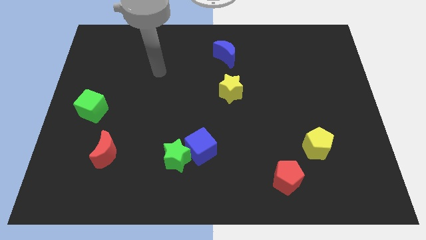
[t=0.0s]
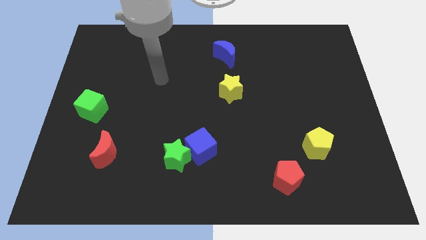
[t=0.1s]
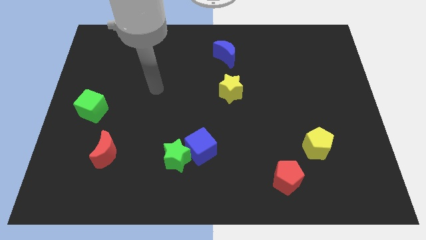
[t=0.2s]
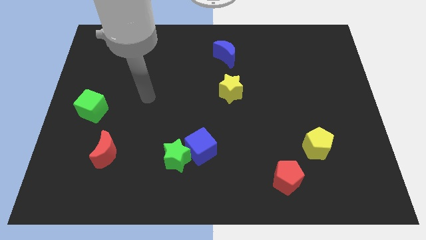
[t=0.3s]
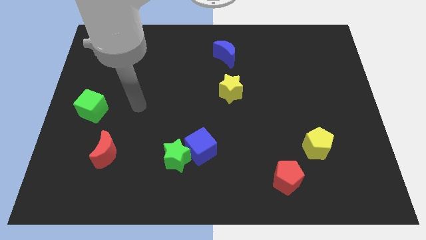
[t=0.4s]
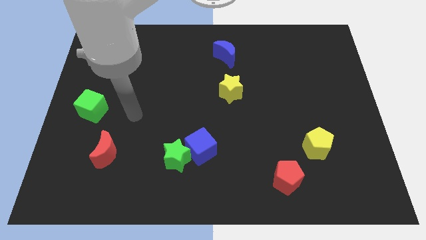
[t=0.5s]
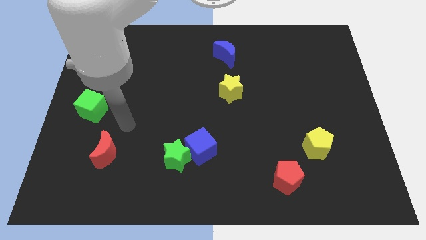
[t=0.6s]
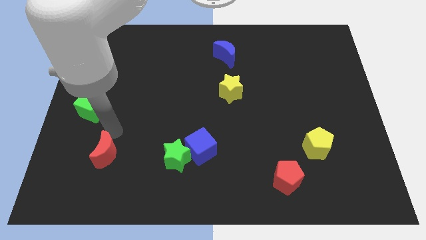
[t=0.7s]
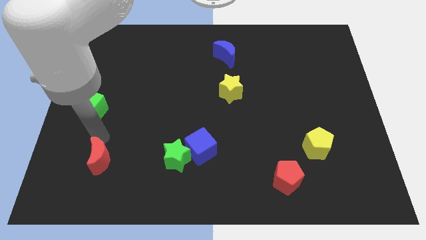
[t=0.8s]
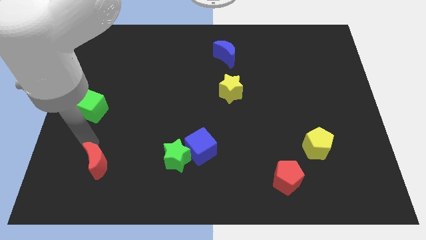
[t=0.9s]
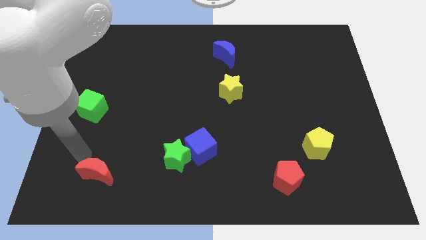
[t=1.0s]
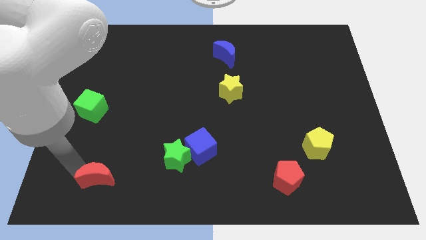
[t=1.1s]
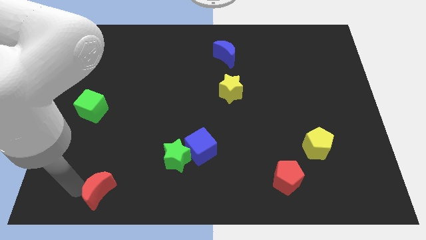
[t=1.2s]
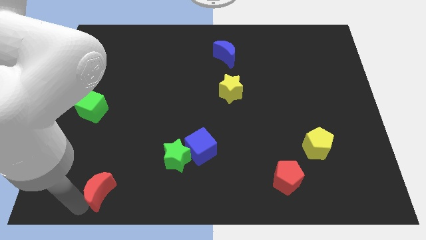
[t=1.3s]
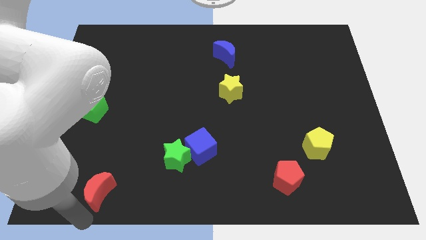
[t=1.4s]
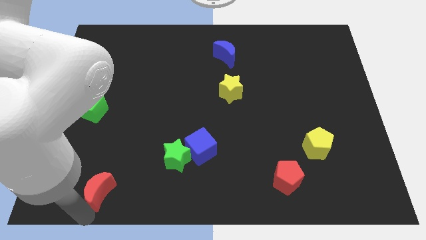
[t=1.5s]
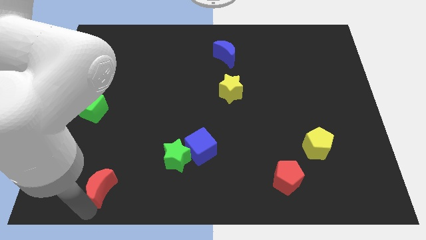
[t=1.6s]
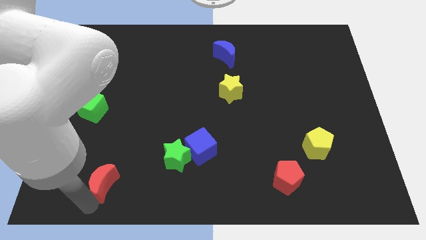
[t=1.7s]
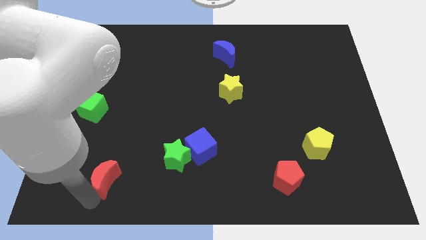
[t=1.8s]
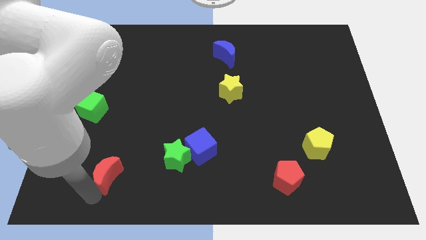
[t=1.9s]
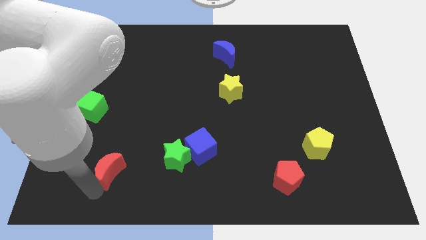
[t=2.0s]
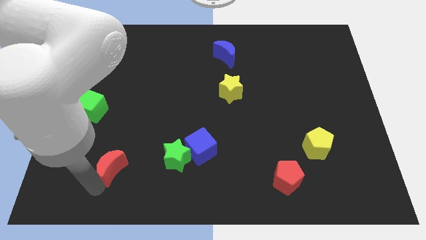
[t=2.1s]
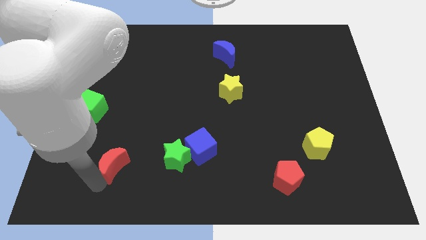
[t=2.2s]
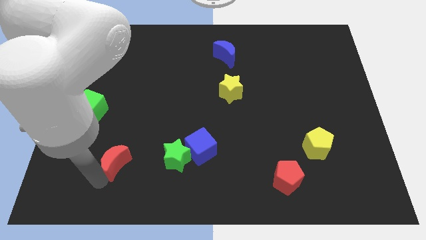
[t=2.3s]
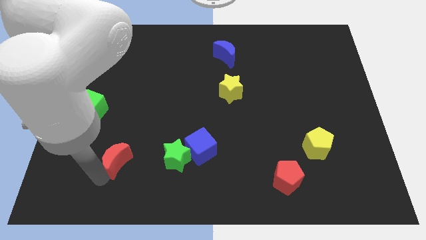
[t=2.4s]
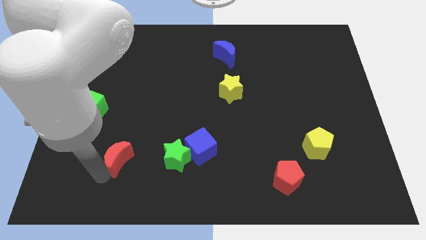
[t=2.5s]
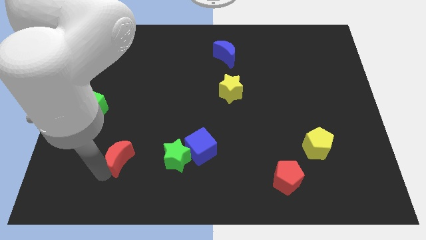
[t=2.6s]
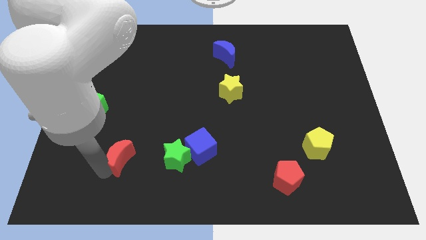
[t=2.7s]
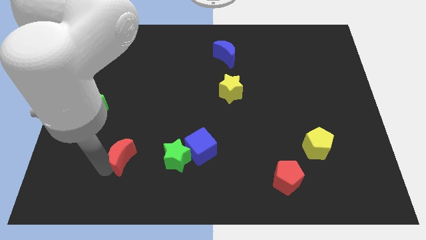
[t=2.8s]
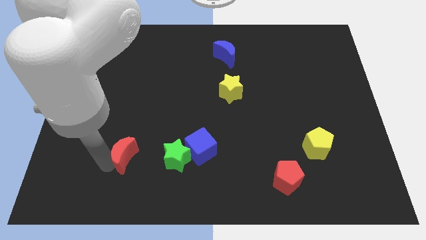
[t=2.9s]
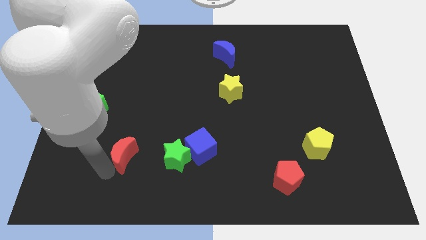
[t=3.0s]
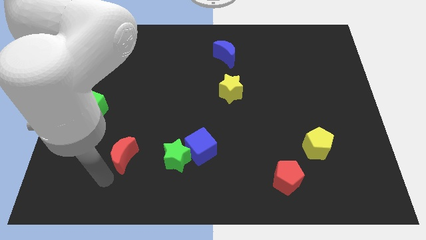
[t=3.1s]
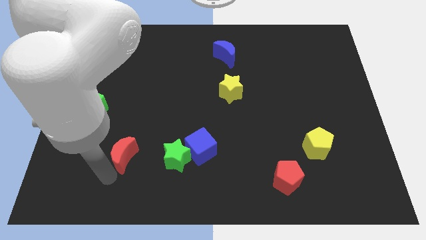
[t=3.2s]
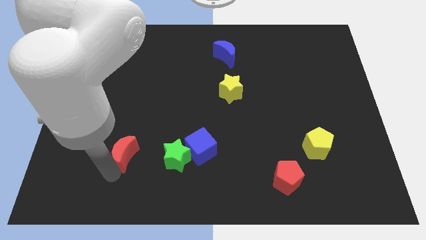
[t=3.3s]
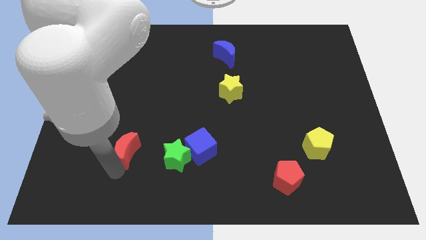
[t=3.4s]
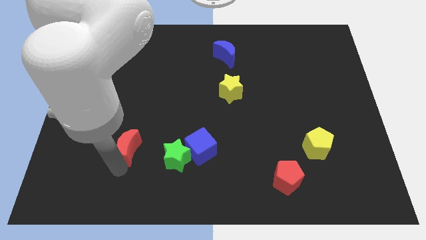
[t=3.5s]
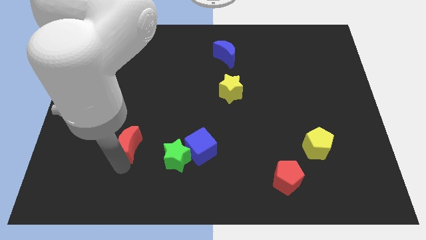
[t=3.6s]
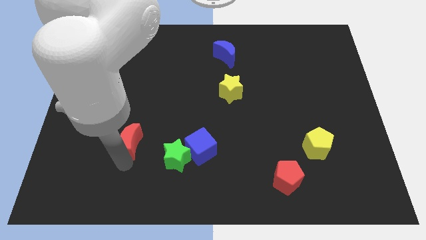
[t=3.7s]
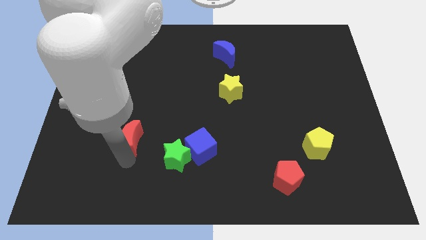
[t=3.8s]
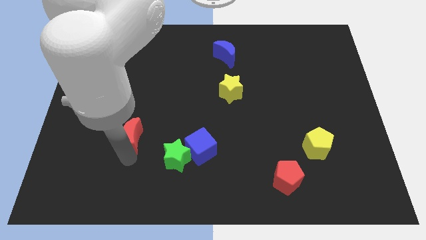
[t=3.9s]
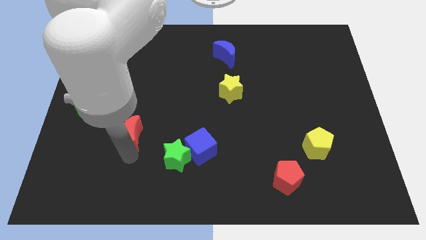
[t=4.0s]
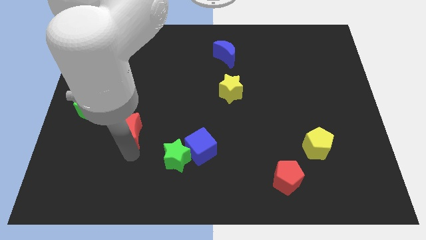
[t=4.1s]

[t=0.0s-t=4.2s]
push the red moon upwards and right slightly

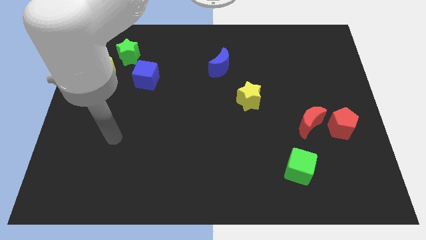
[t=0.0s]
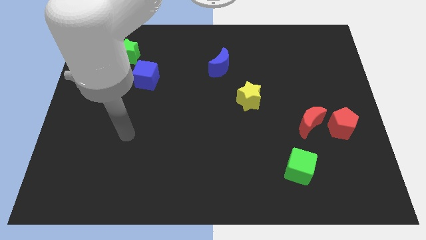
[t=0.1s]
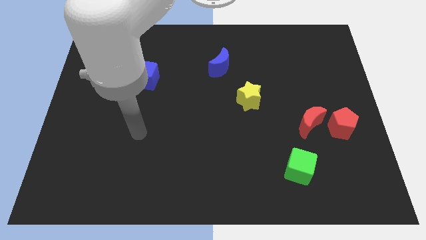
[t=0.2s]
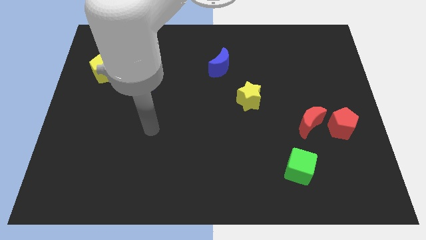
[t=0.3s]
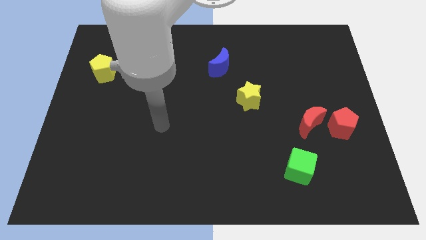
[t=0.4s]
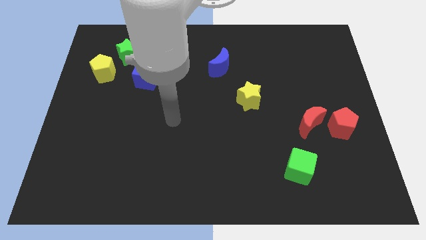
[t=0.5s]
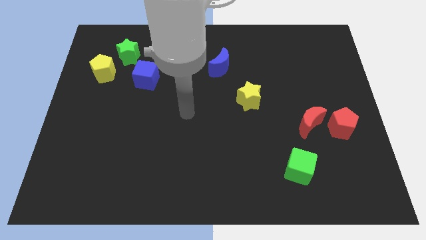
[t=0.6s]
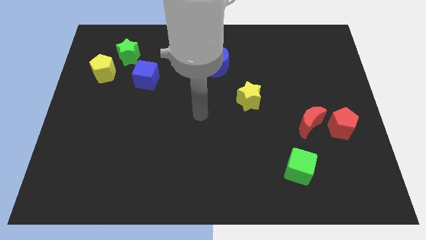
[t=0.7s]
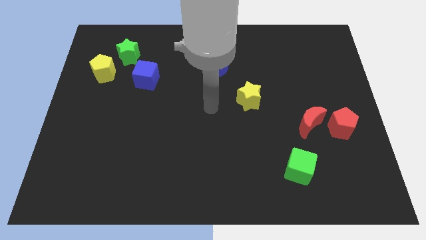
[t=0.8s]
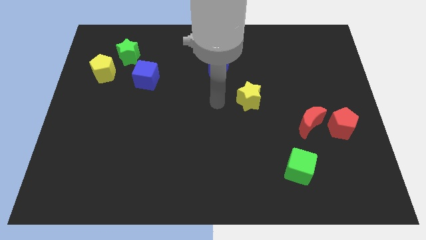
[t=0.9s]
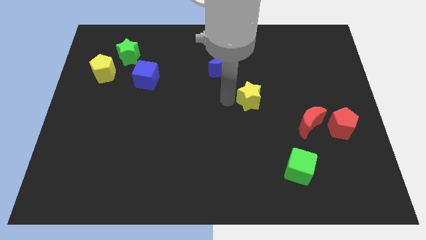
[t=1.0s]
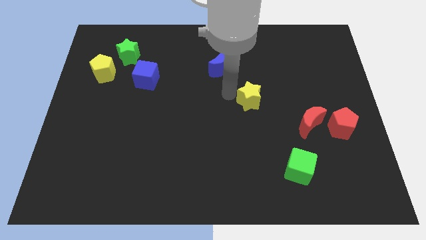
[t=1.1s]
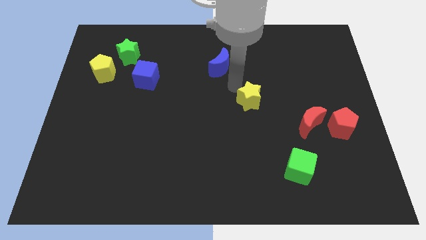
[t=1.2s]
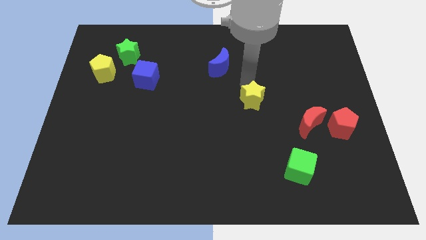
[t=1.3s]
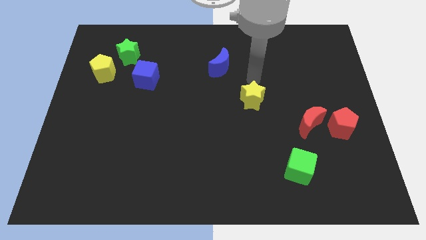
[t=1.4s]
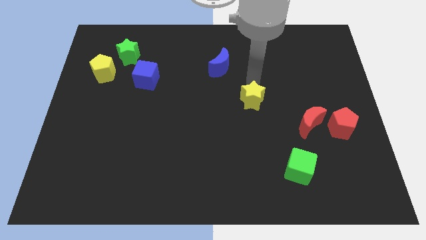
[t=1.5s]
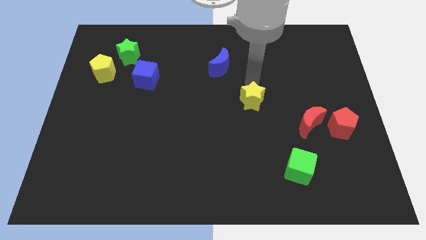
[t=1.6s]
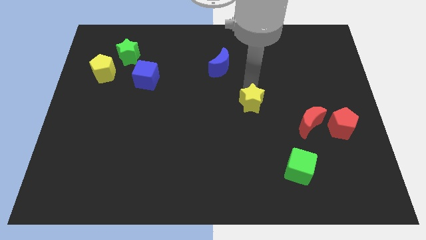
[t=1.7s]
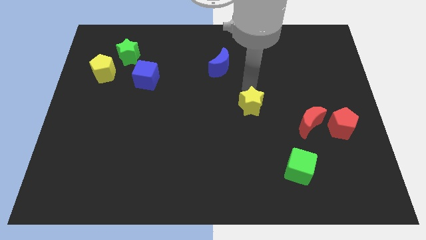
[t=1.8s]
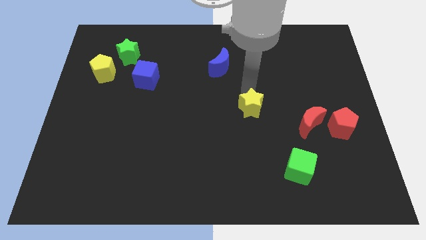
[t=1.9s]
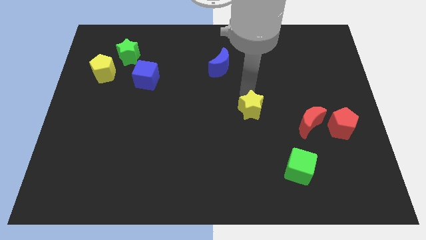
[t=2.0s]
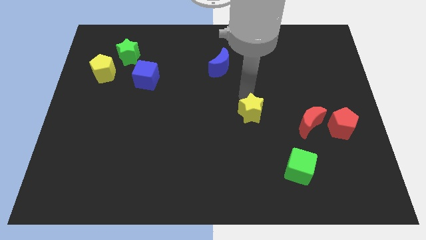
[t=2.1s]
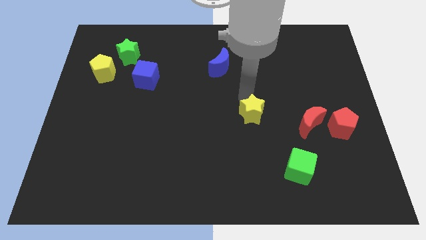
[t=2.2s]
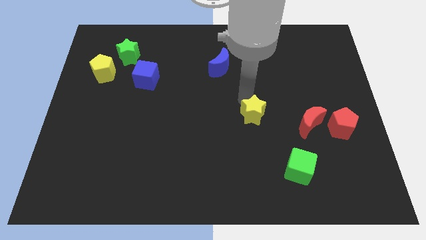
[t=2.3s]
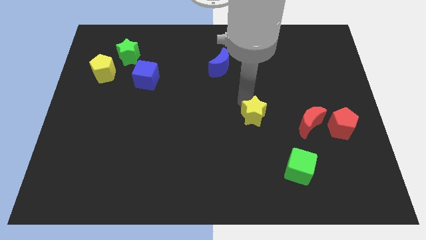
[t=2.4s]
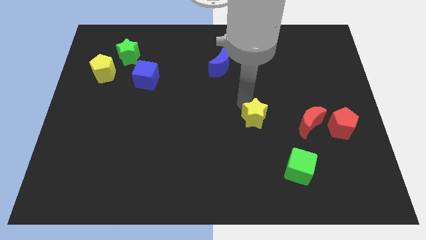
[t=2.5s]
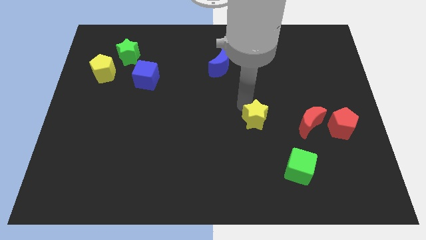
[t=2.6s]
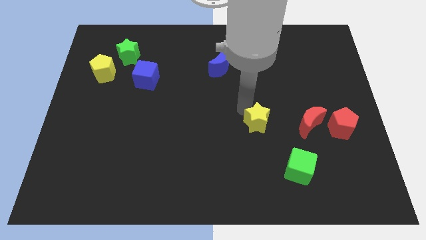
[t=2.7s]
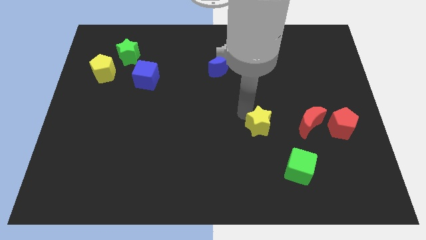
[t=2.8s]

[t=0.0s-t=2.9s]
move the yellow star downwards slightly

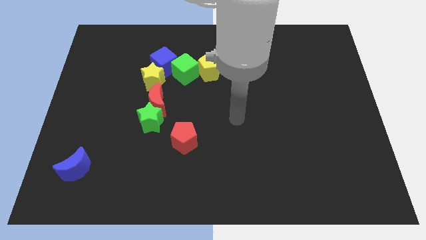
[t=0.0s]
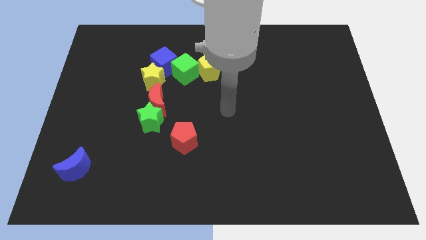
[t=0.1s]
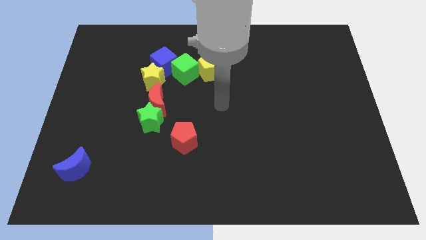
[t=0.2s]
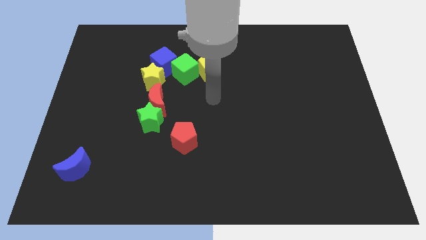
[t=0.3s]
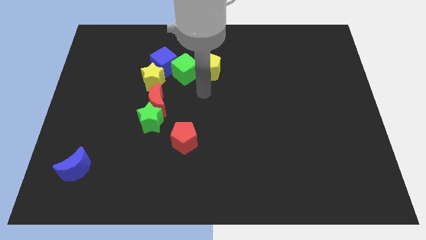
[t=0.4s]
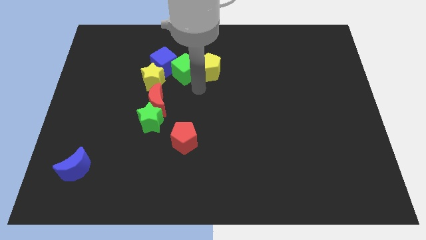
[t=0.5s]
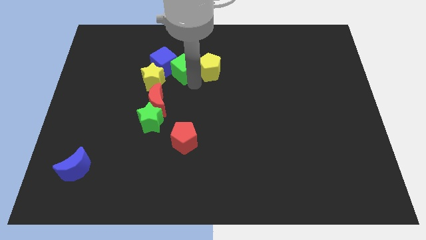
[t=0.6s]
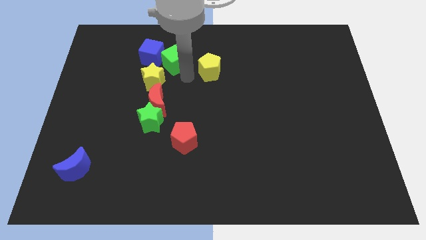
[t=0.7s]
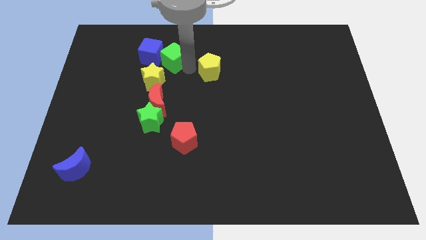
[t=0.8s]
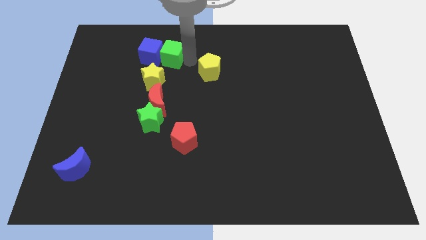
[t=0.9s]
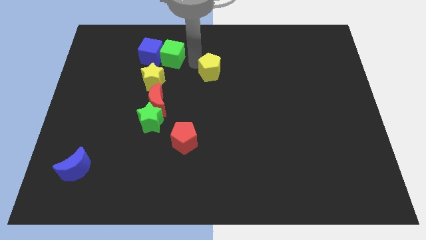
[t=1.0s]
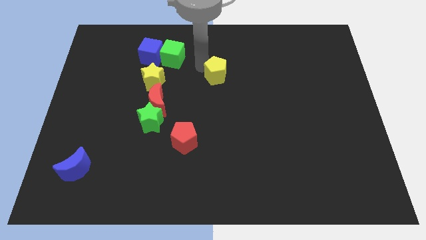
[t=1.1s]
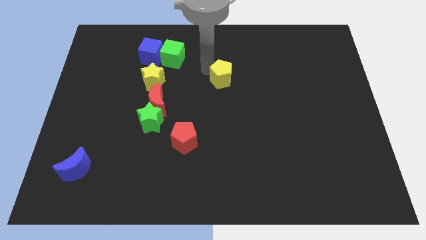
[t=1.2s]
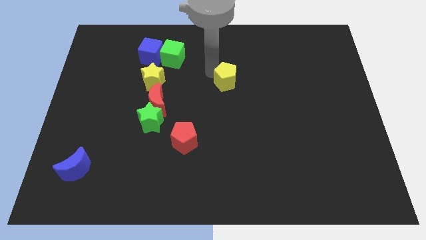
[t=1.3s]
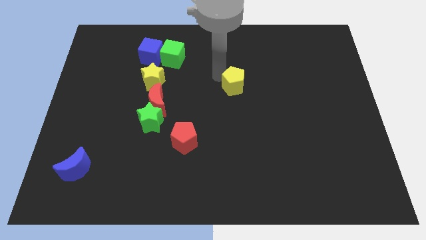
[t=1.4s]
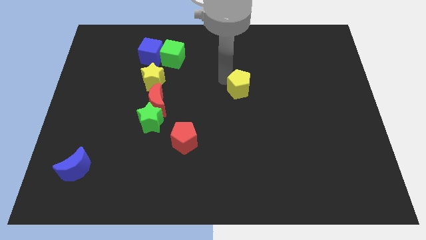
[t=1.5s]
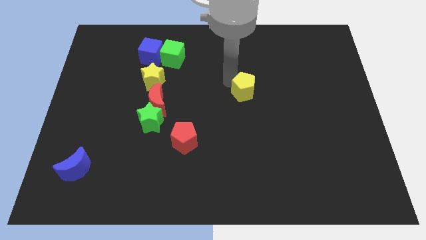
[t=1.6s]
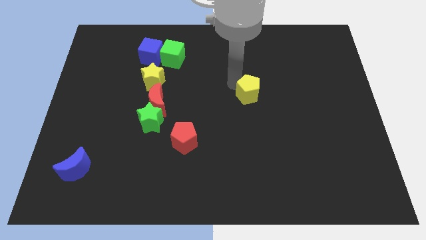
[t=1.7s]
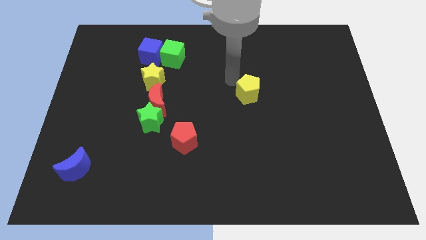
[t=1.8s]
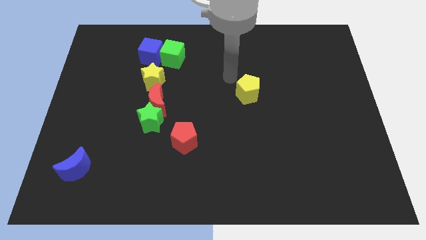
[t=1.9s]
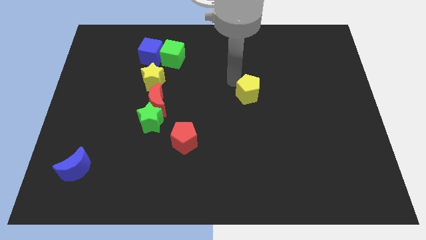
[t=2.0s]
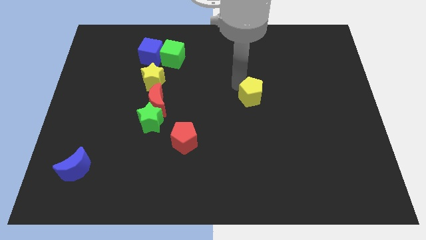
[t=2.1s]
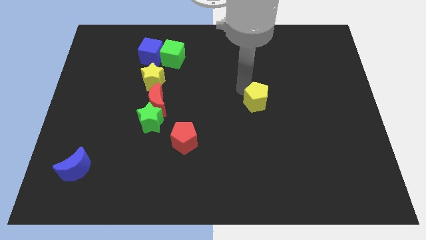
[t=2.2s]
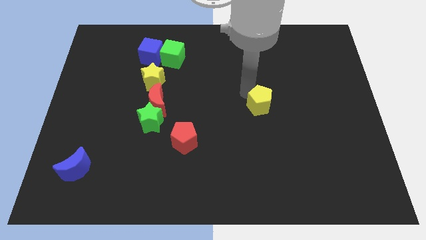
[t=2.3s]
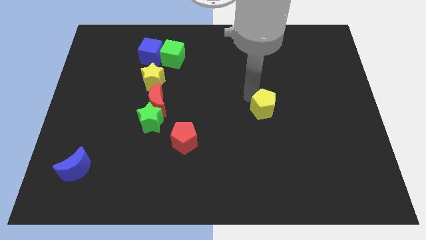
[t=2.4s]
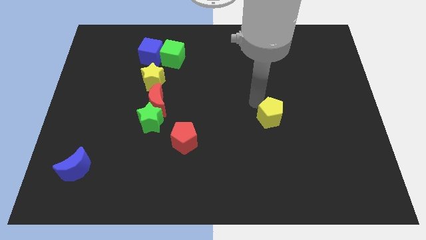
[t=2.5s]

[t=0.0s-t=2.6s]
slide the yellow pentagon down and right
